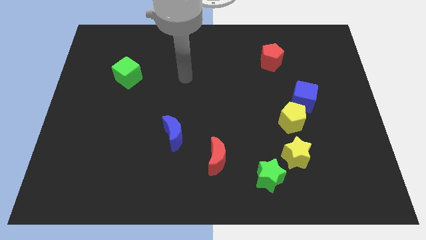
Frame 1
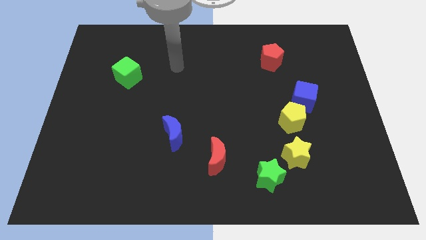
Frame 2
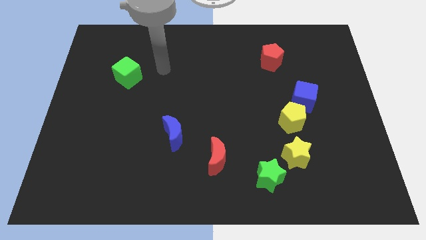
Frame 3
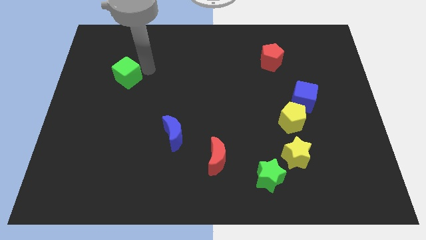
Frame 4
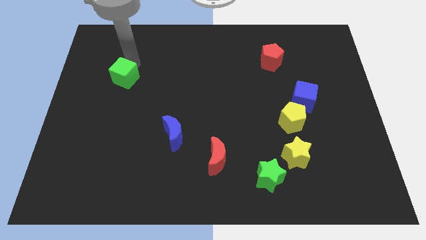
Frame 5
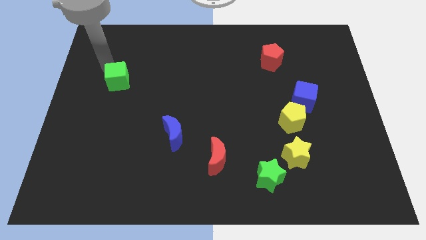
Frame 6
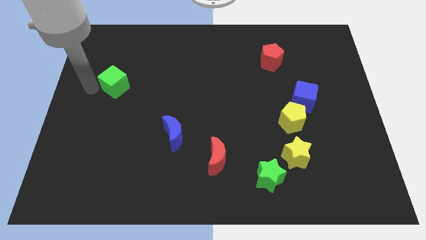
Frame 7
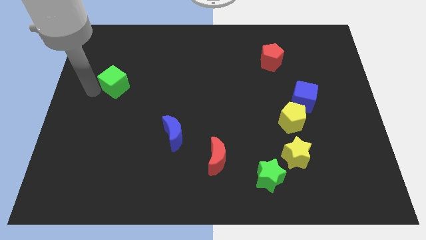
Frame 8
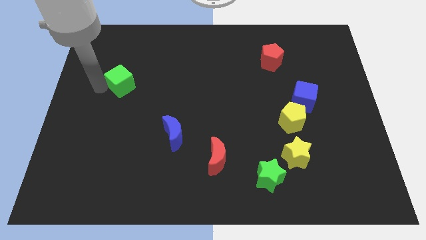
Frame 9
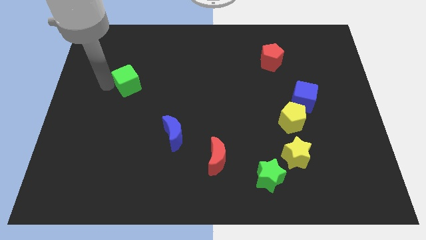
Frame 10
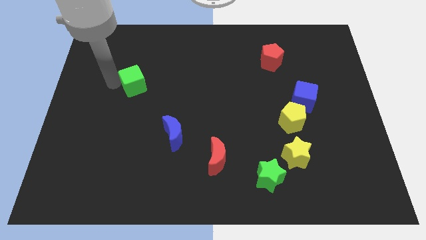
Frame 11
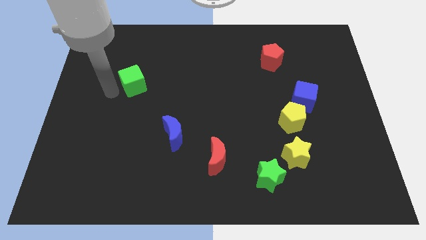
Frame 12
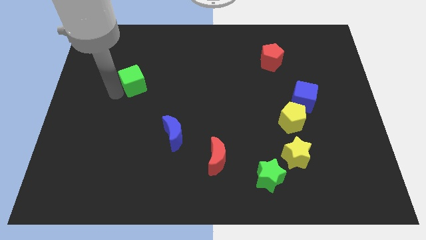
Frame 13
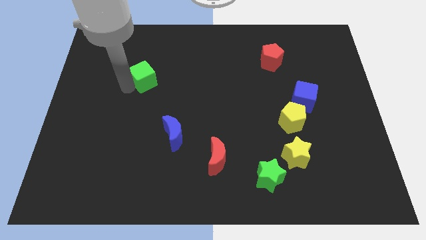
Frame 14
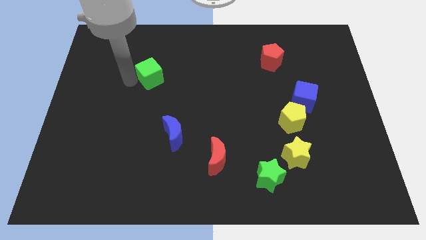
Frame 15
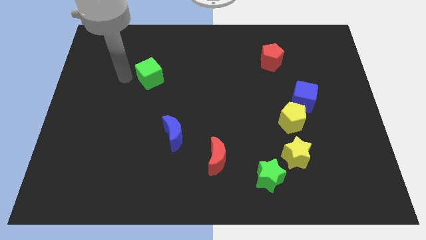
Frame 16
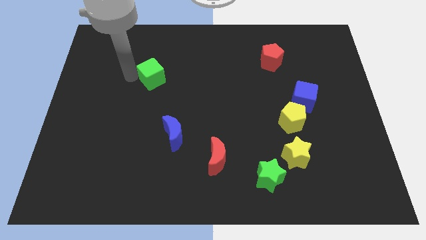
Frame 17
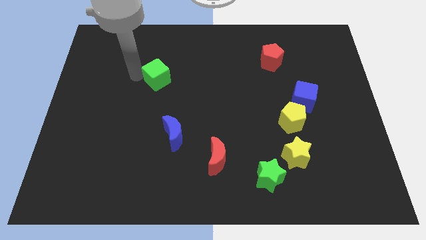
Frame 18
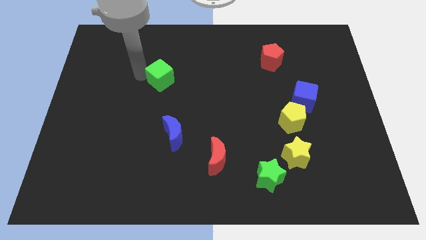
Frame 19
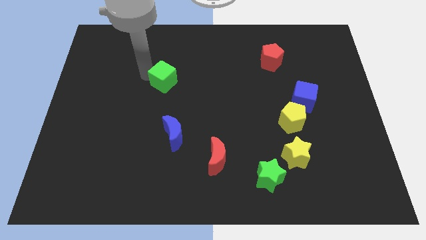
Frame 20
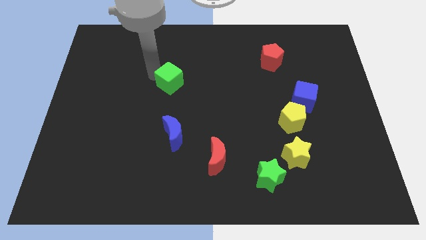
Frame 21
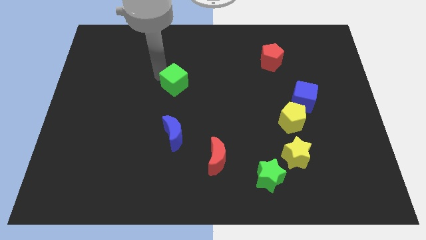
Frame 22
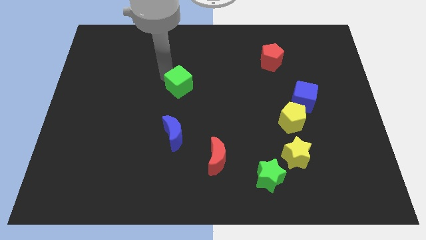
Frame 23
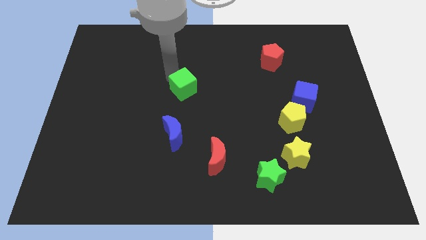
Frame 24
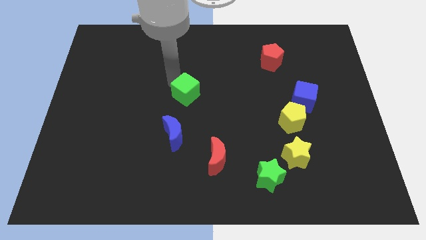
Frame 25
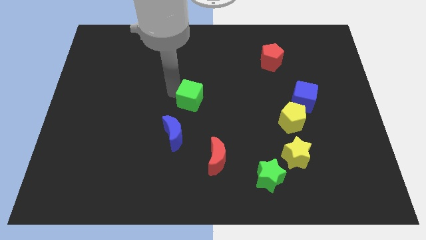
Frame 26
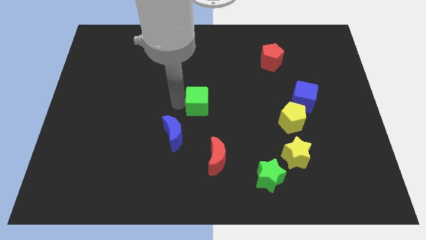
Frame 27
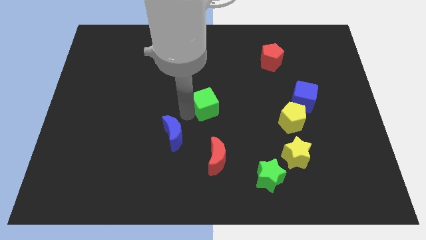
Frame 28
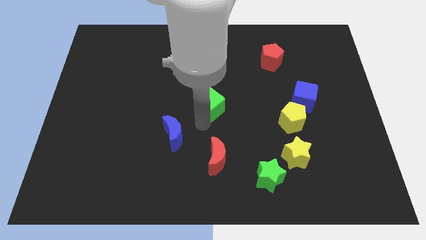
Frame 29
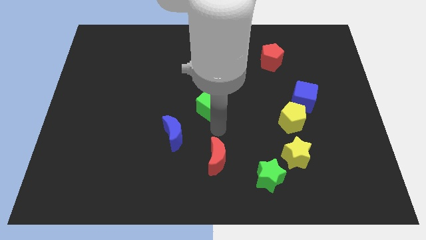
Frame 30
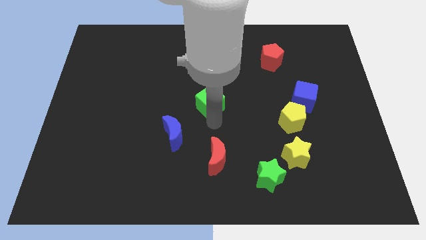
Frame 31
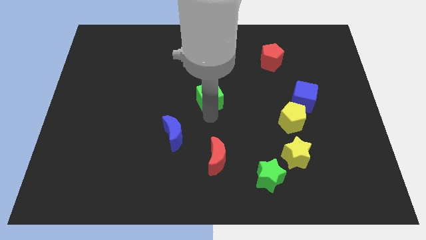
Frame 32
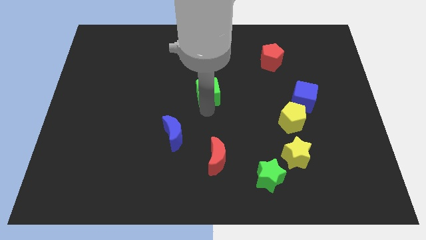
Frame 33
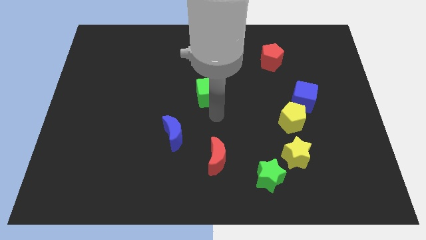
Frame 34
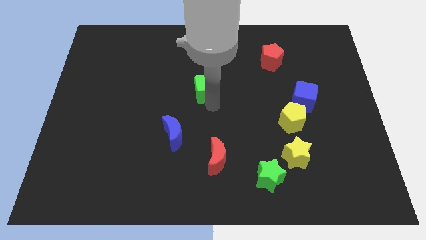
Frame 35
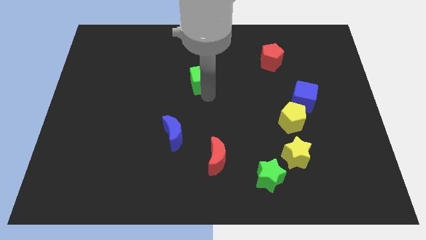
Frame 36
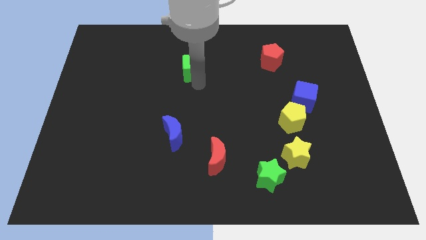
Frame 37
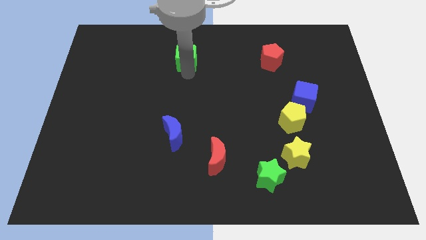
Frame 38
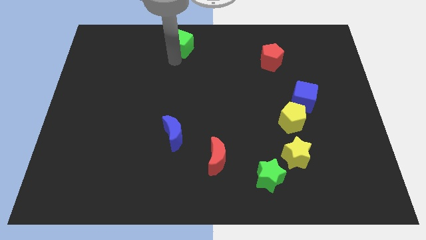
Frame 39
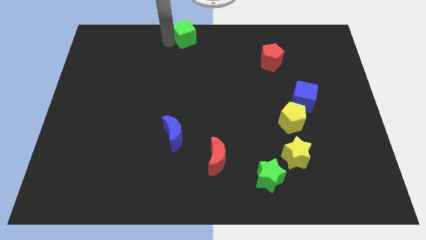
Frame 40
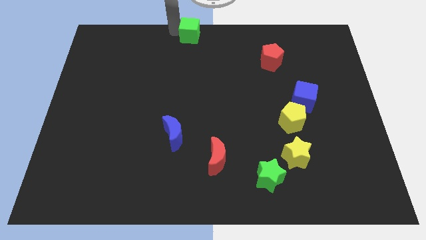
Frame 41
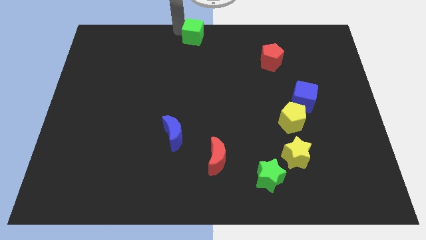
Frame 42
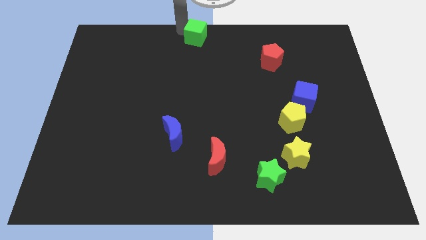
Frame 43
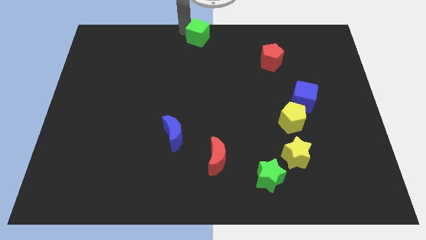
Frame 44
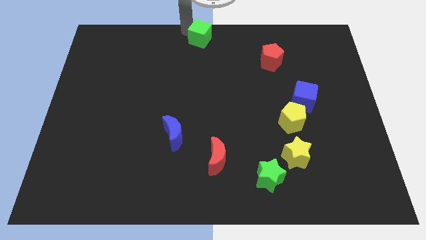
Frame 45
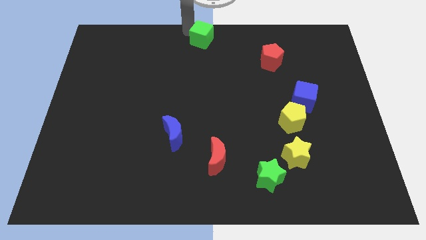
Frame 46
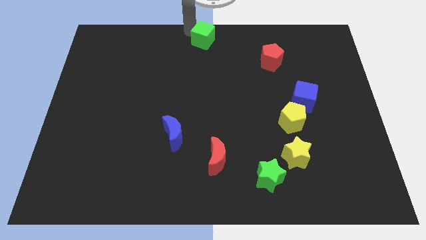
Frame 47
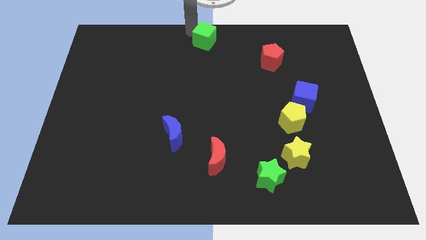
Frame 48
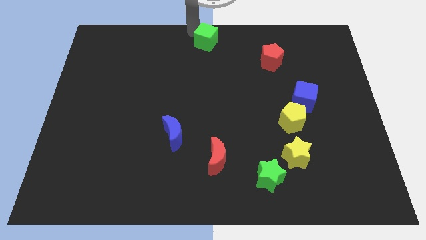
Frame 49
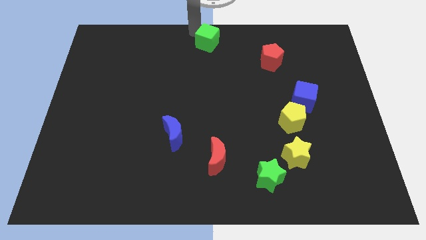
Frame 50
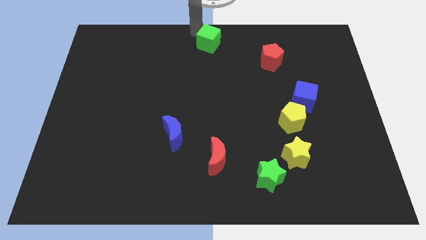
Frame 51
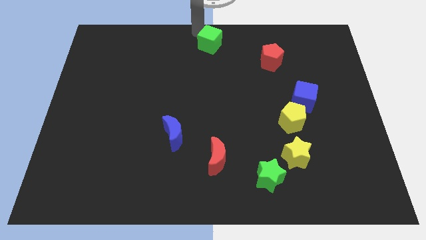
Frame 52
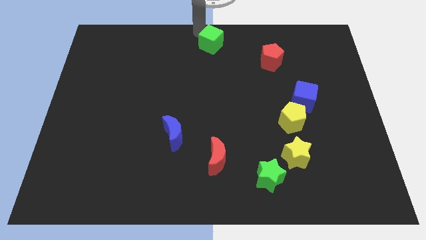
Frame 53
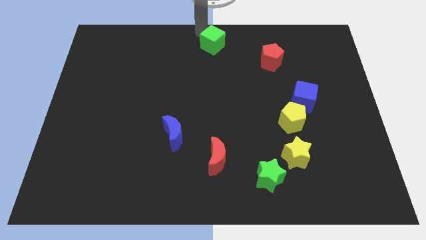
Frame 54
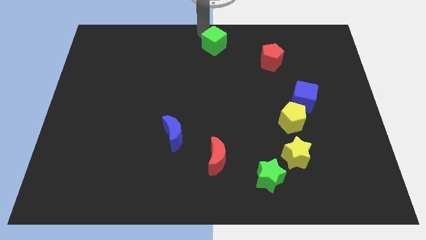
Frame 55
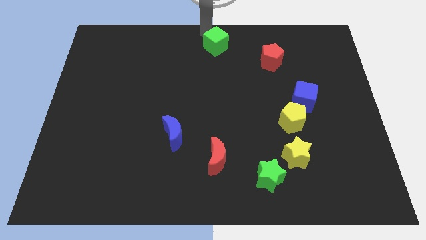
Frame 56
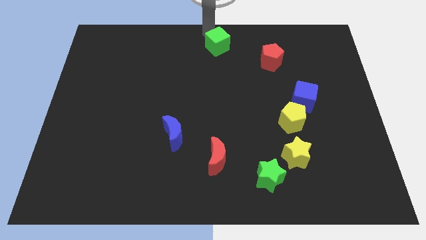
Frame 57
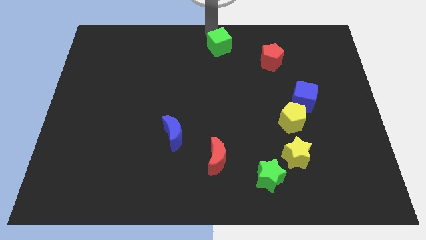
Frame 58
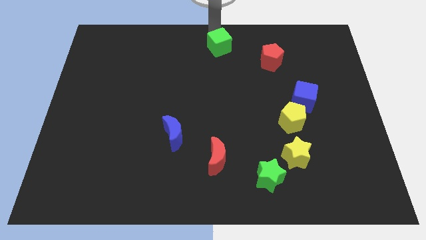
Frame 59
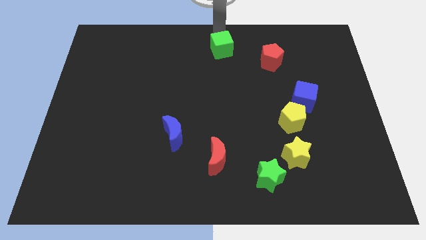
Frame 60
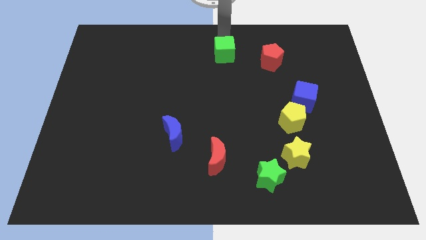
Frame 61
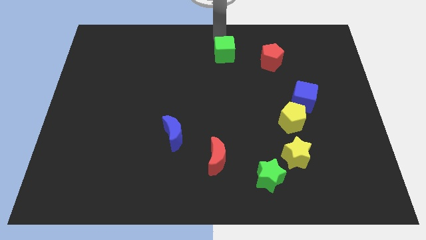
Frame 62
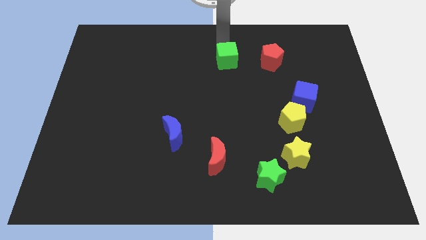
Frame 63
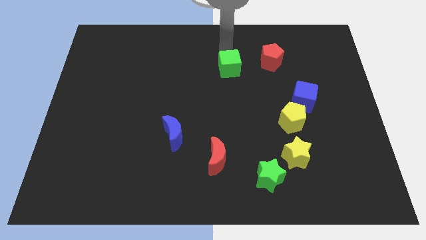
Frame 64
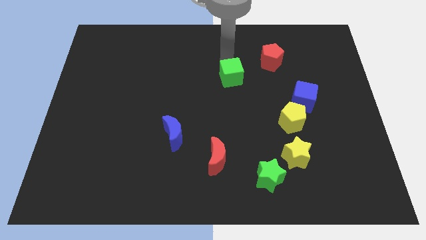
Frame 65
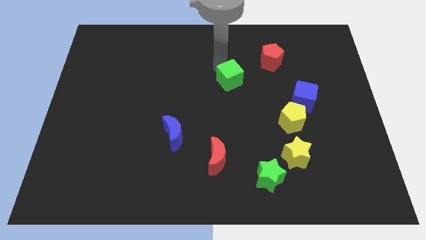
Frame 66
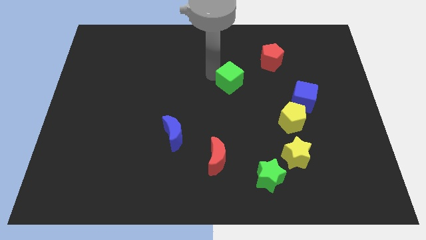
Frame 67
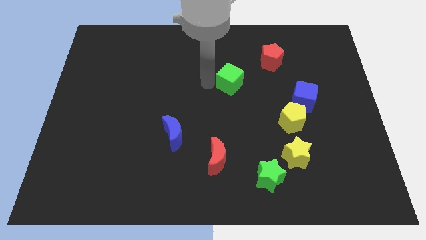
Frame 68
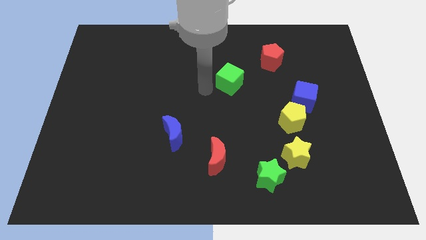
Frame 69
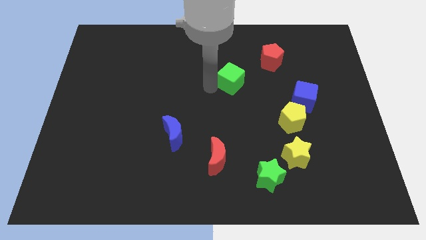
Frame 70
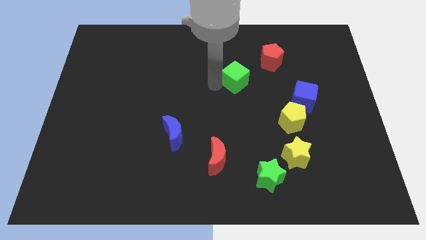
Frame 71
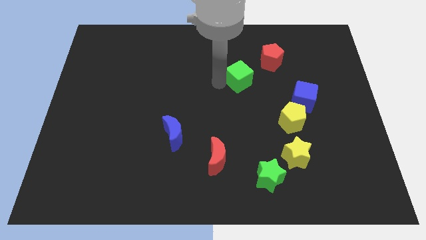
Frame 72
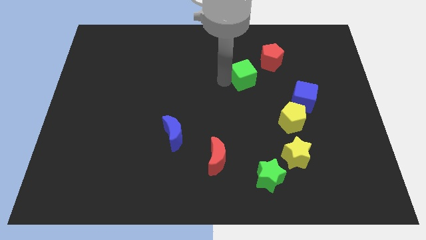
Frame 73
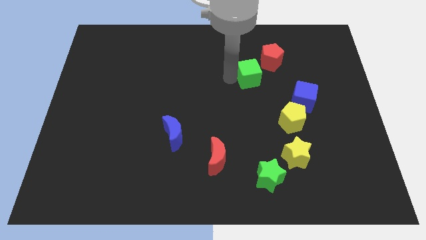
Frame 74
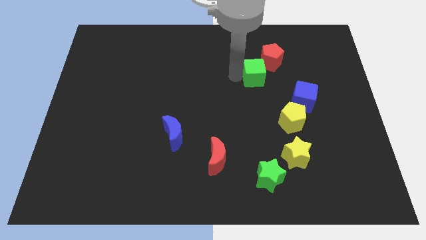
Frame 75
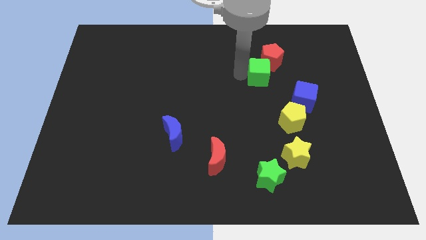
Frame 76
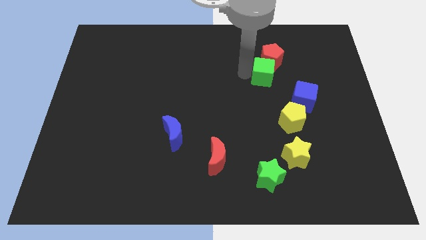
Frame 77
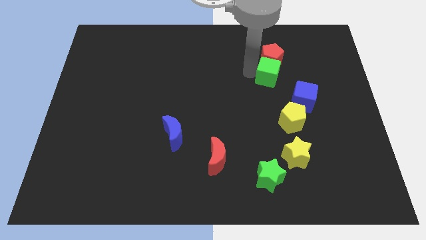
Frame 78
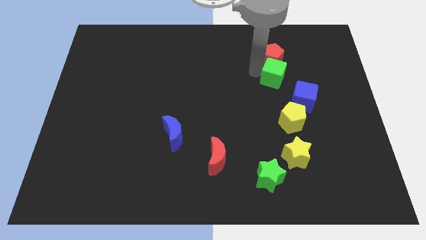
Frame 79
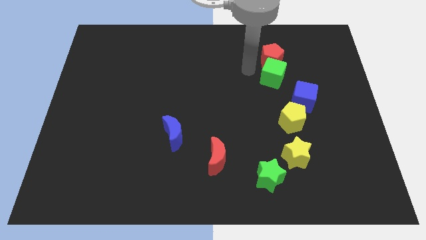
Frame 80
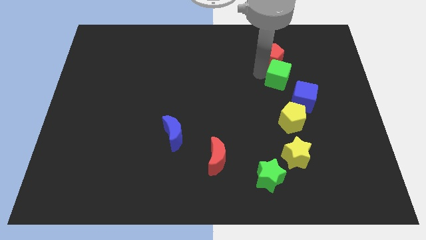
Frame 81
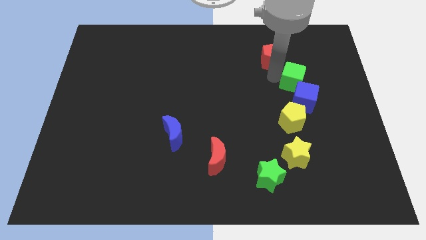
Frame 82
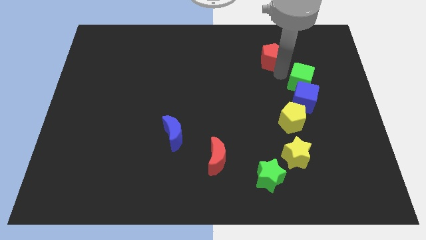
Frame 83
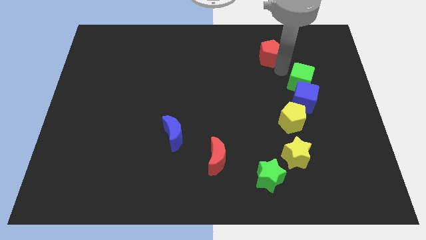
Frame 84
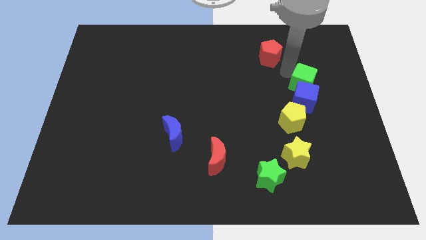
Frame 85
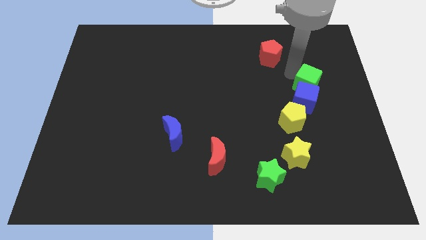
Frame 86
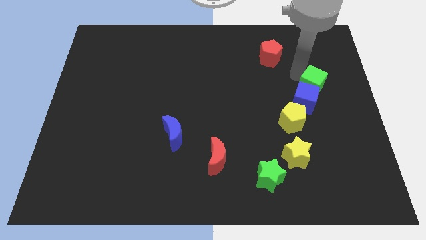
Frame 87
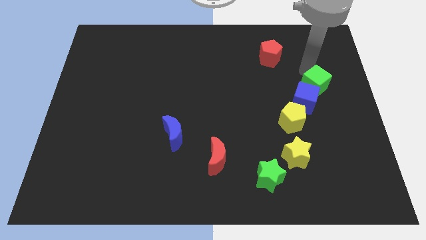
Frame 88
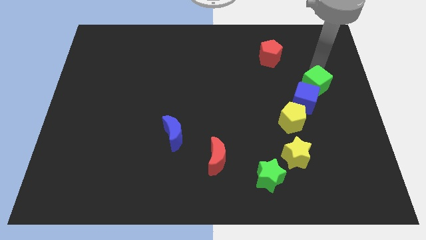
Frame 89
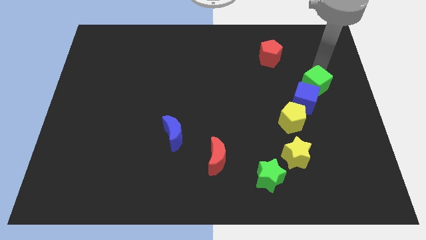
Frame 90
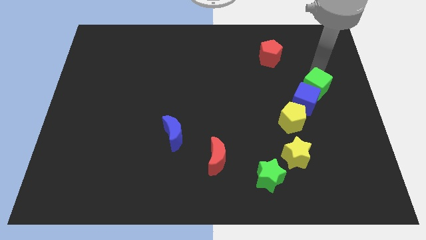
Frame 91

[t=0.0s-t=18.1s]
move the green cube to the top right side of the yellow pentagon
